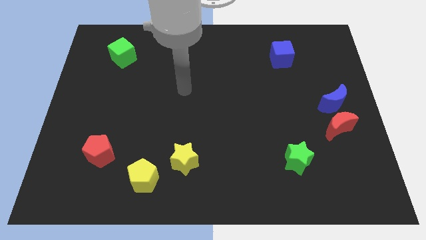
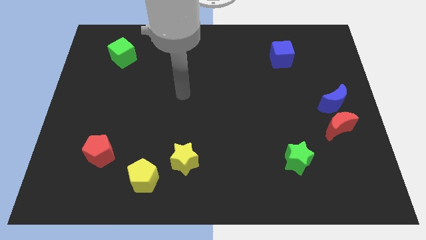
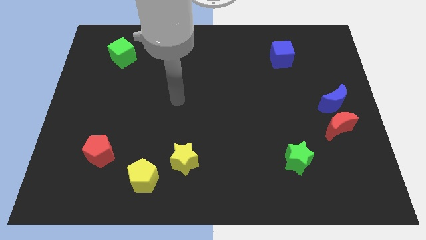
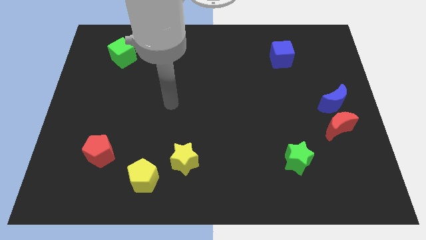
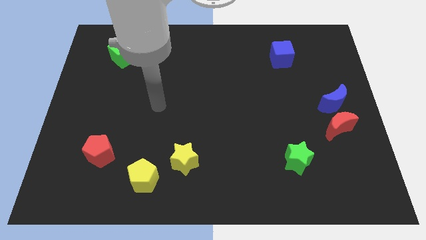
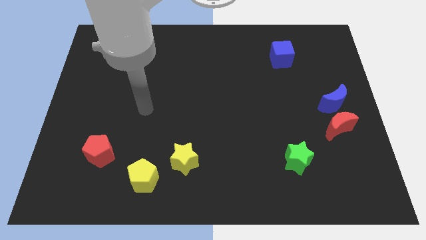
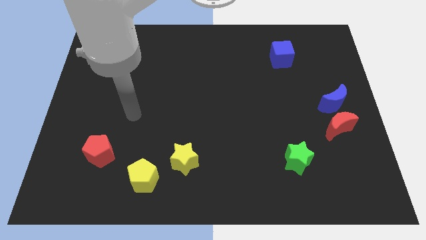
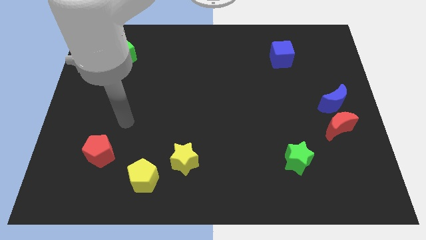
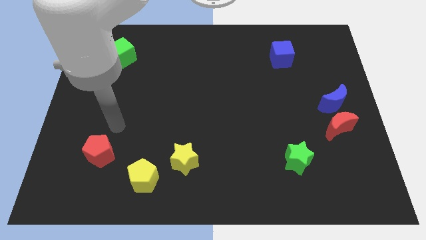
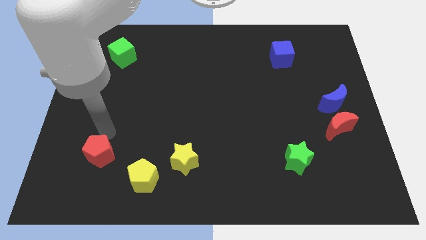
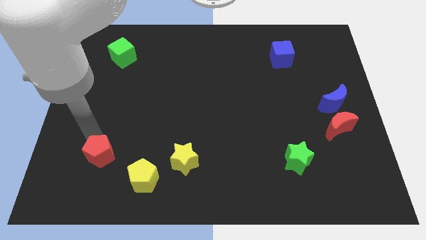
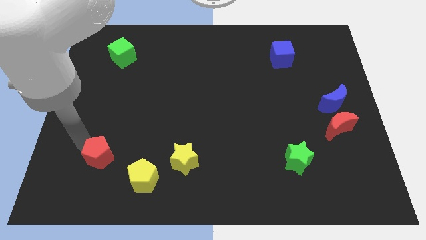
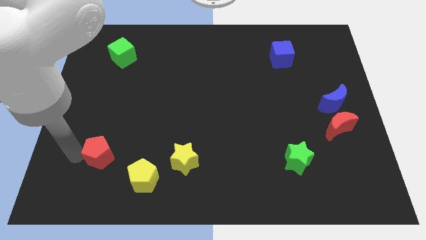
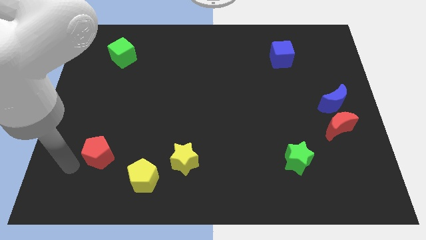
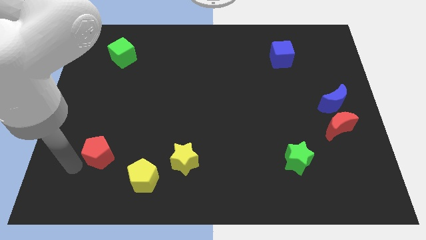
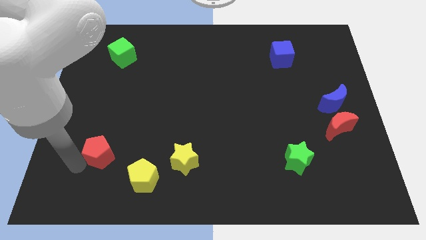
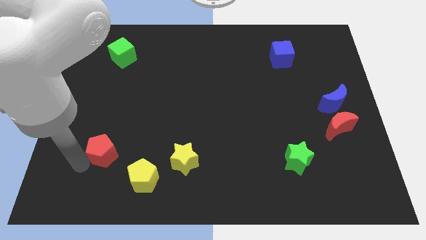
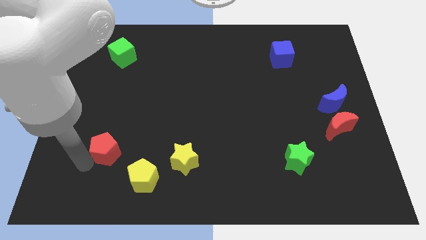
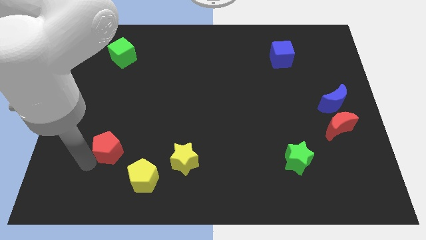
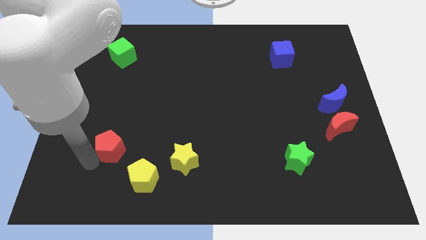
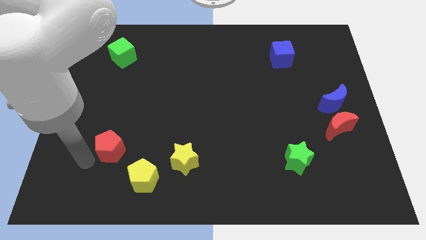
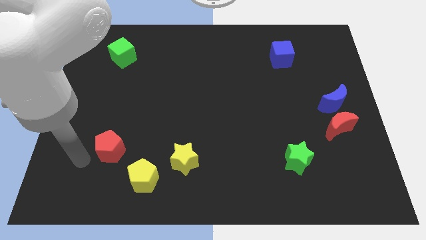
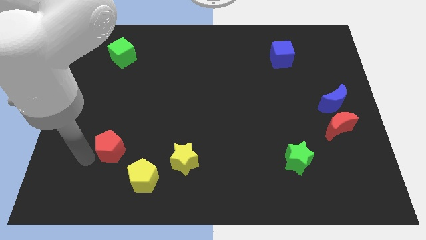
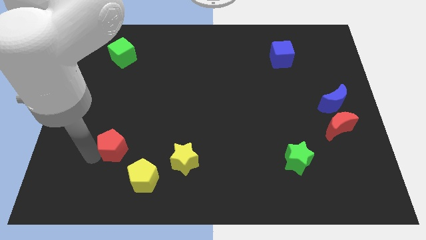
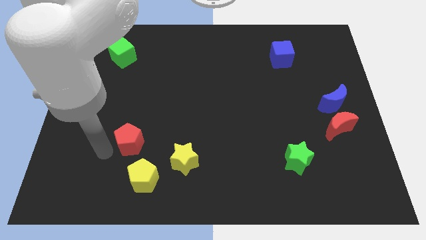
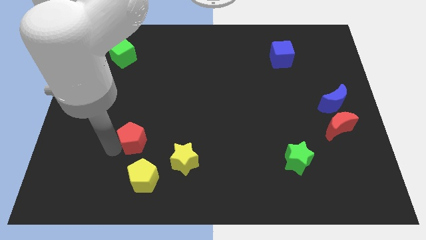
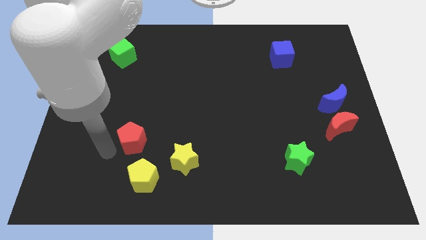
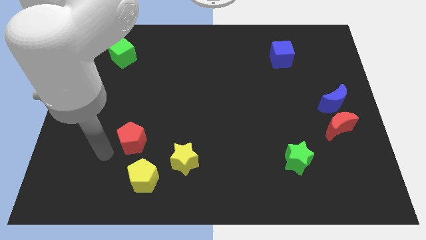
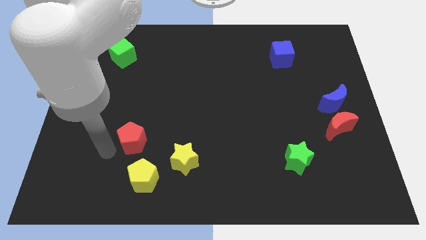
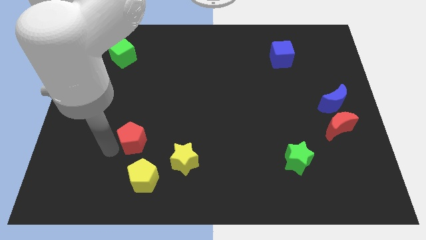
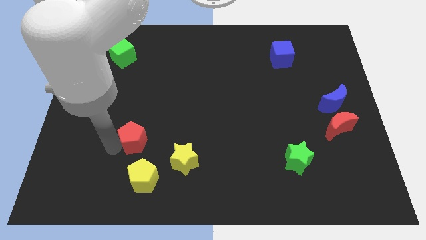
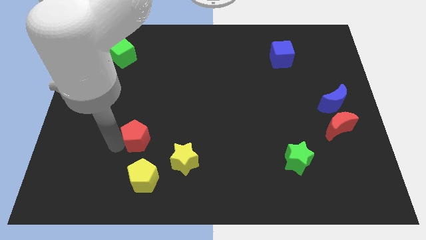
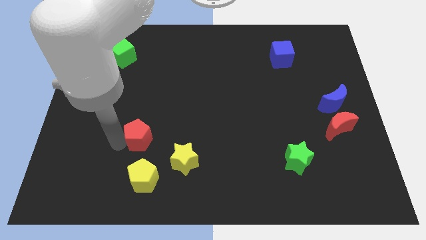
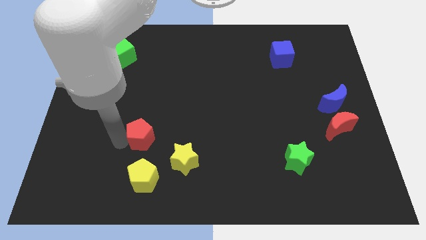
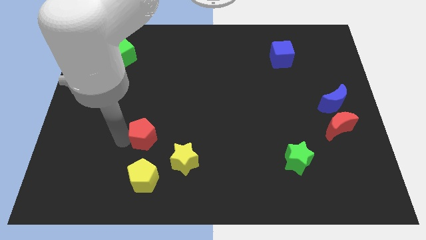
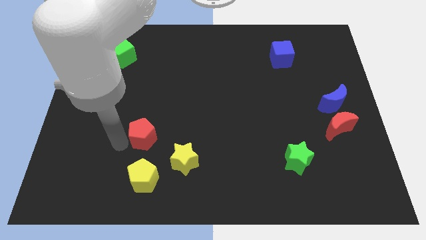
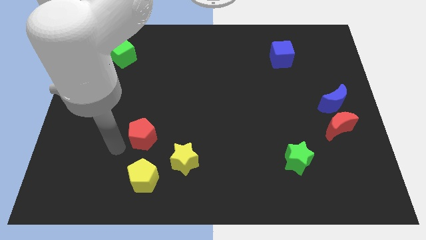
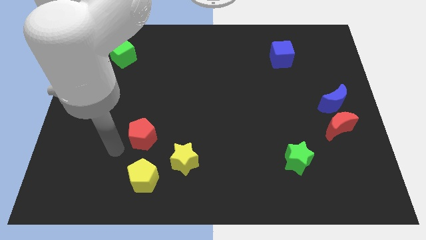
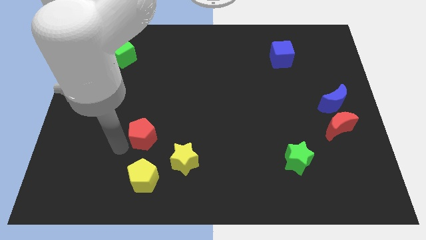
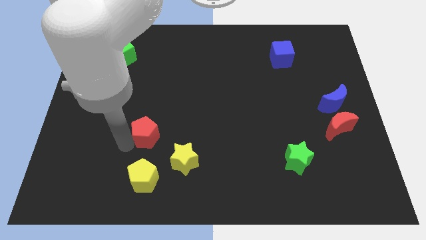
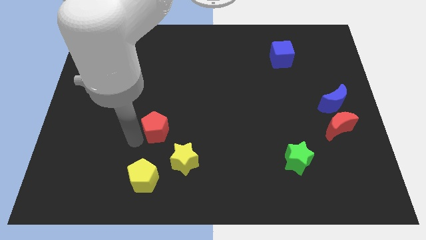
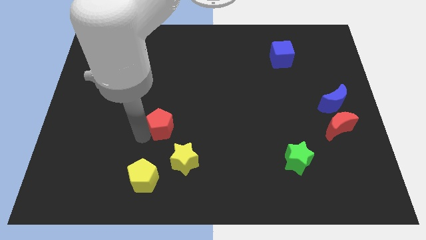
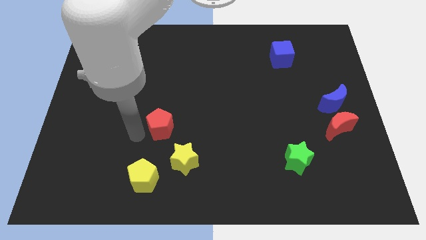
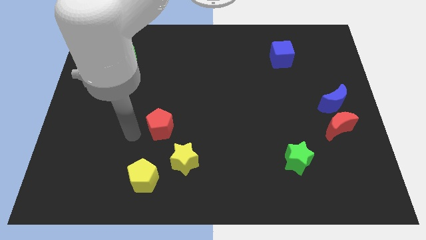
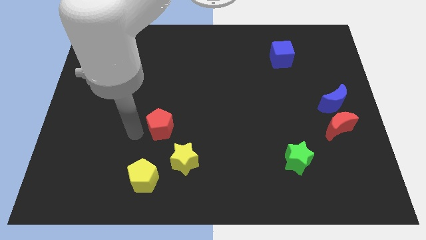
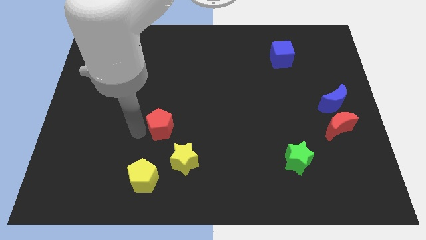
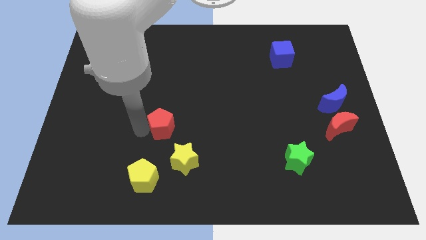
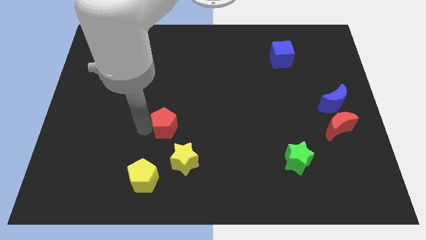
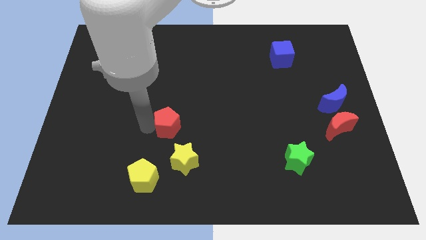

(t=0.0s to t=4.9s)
put the red pentagon to the top side of the yellow star

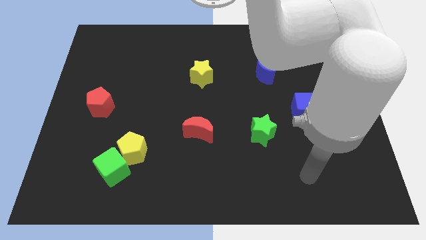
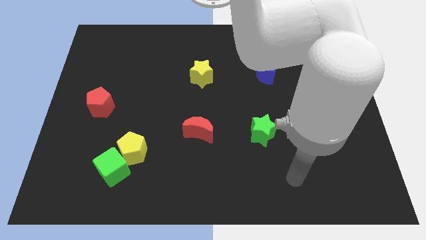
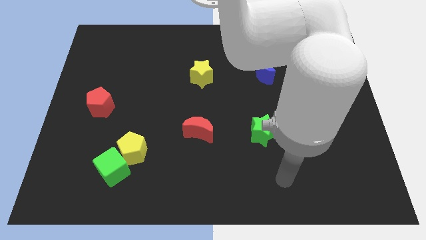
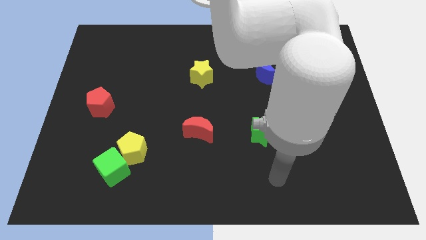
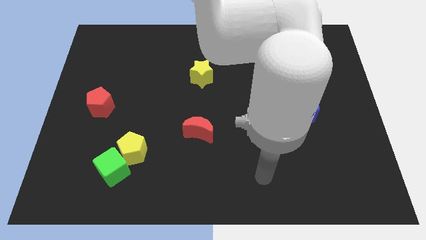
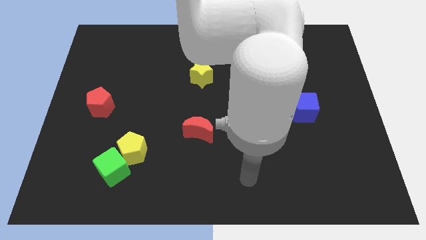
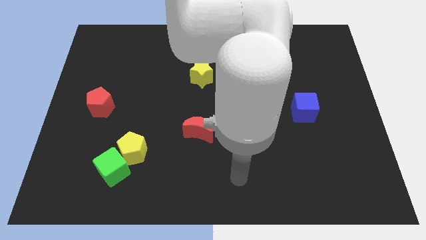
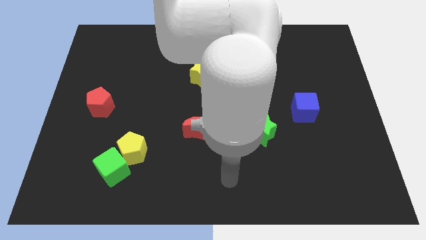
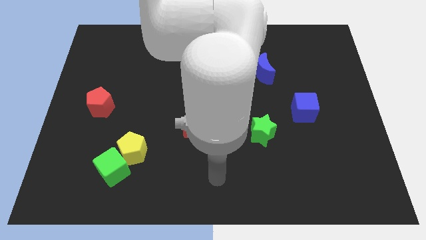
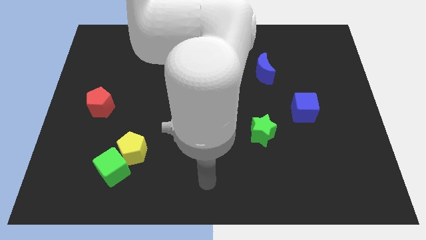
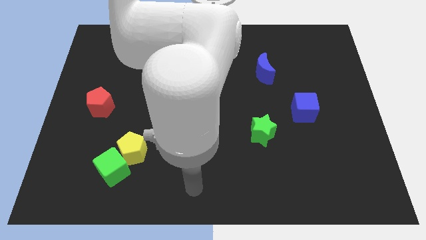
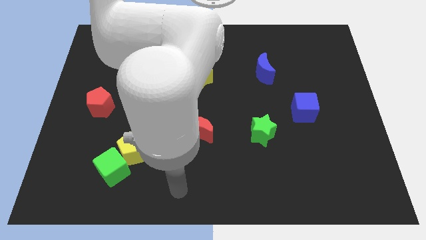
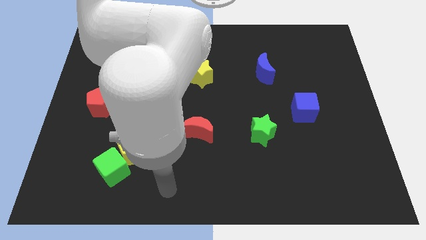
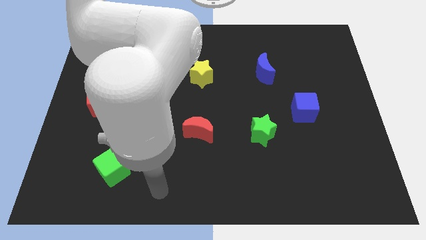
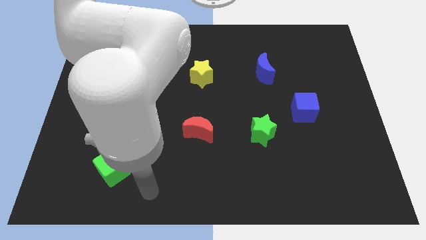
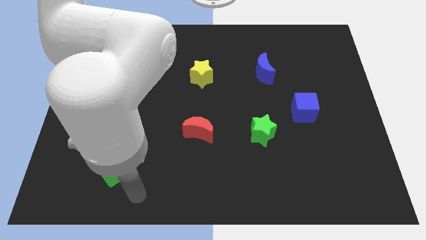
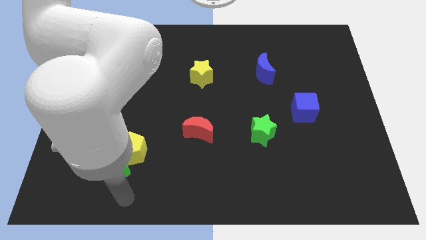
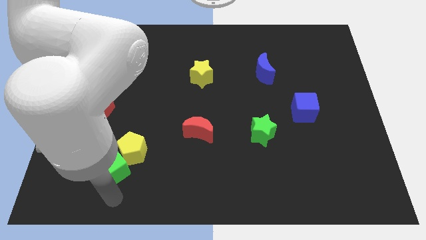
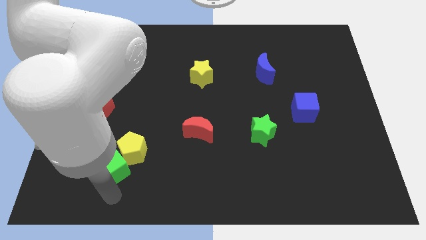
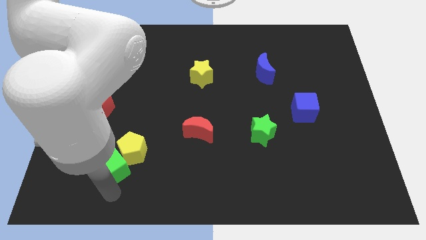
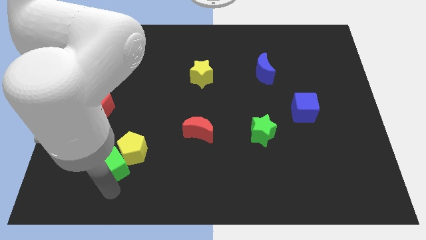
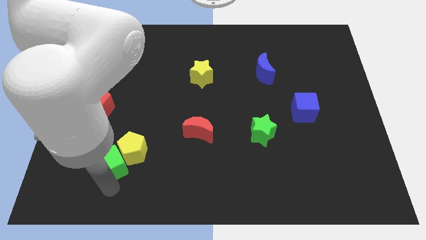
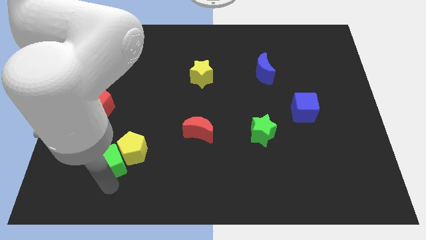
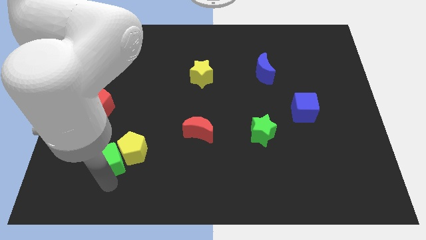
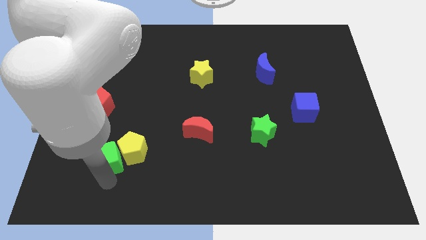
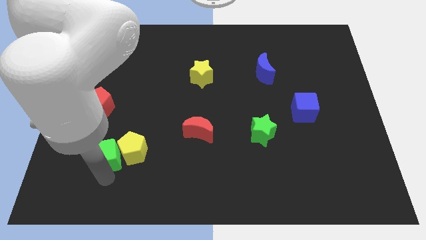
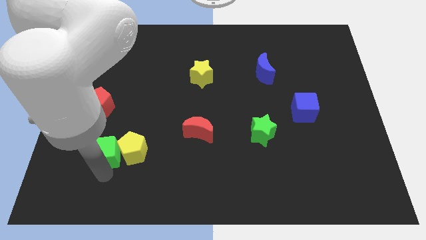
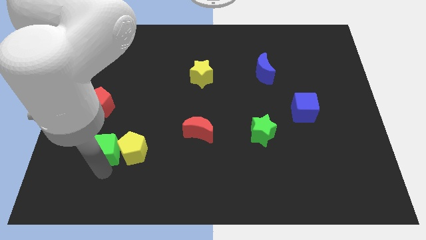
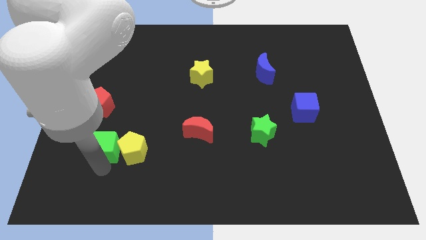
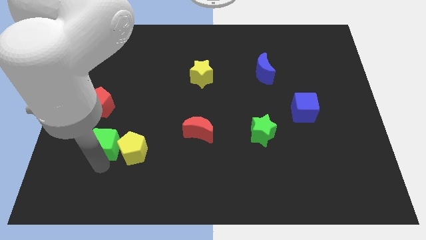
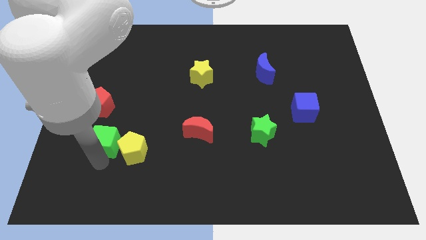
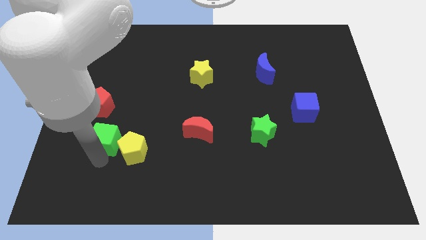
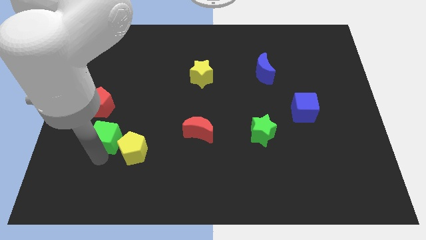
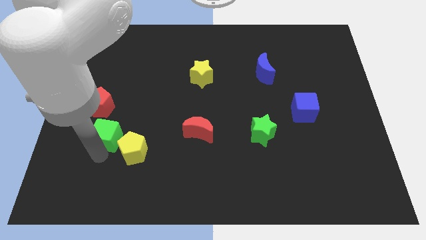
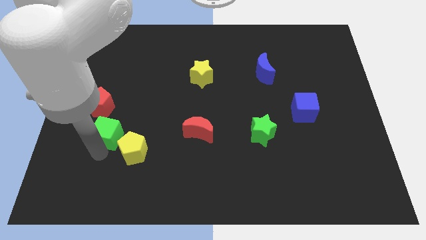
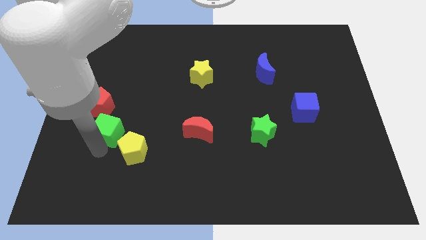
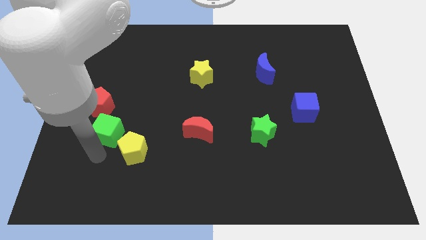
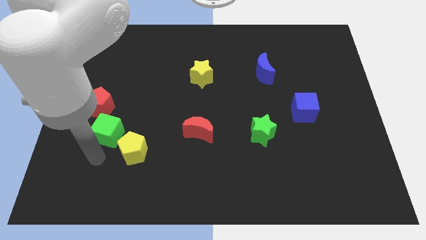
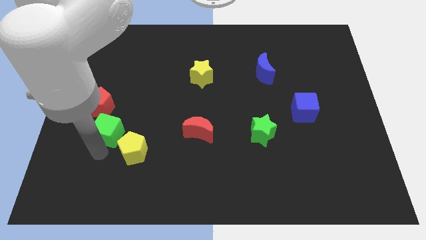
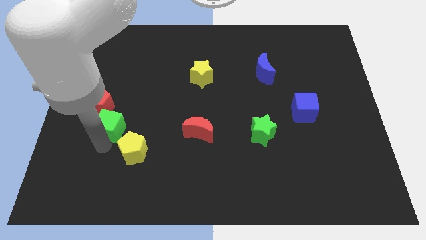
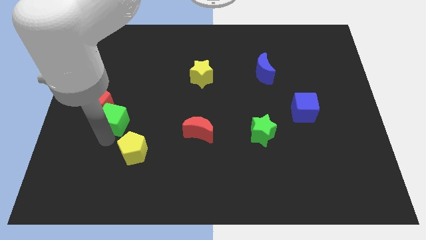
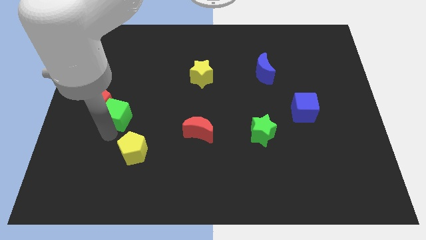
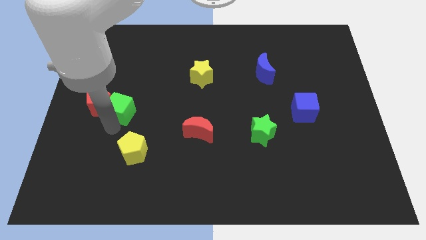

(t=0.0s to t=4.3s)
push the green cube to the top right of the red pentagon
